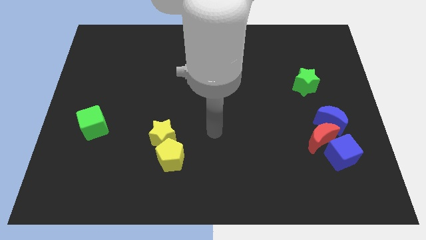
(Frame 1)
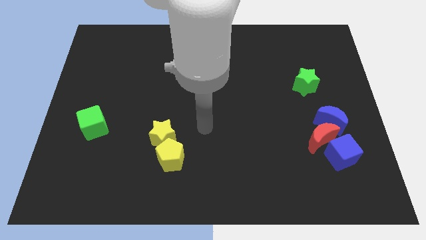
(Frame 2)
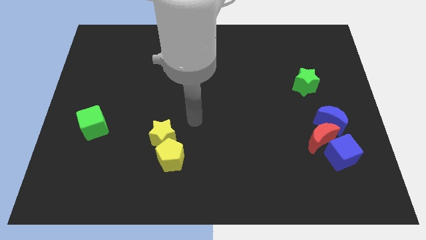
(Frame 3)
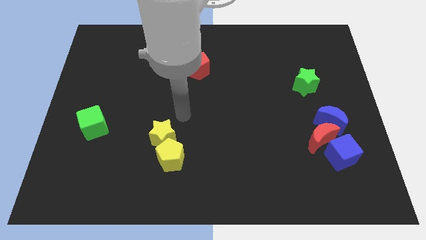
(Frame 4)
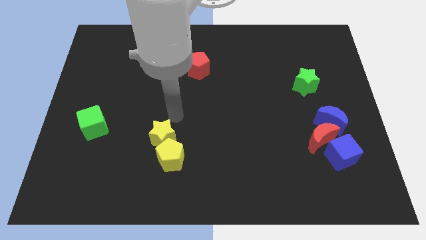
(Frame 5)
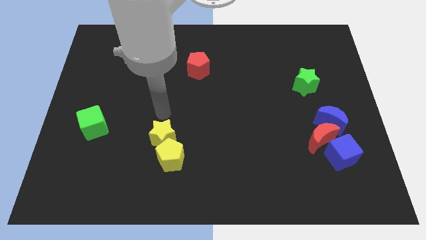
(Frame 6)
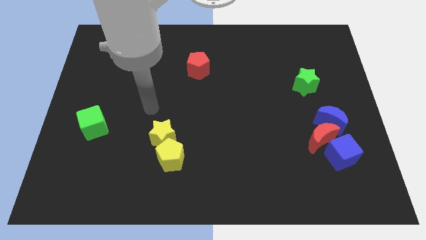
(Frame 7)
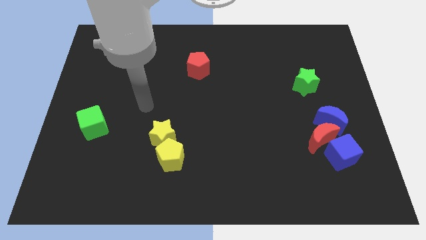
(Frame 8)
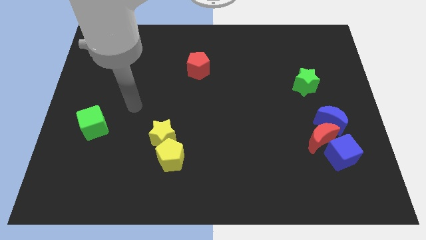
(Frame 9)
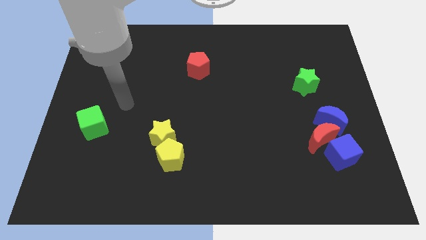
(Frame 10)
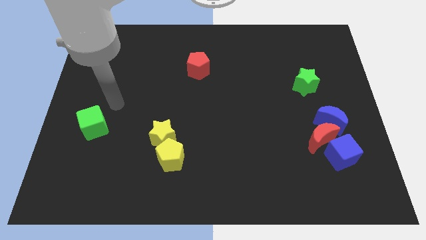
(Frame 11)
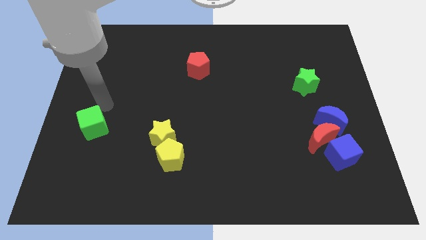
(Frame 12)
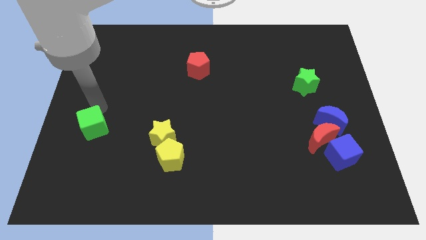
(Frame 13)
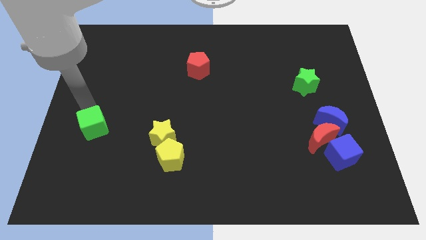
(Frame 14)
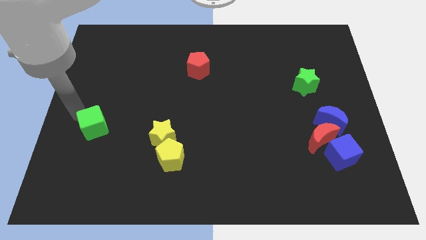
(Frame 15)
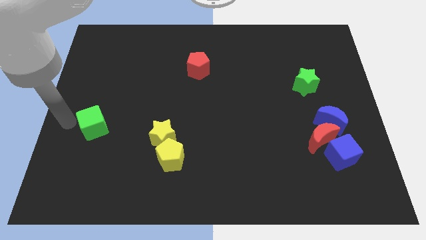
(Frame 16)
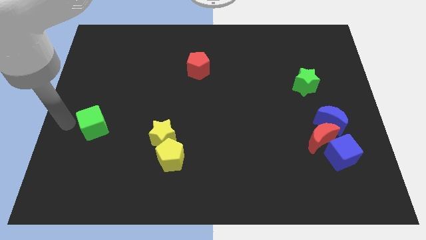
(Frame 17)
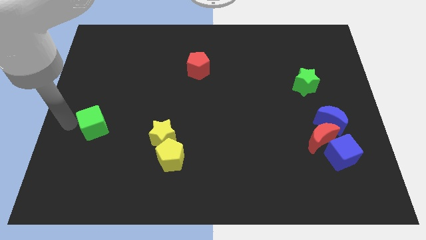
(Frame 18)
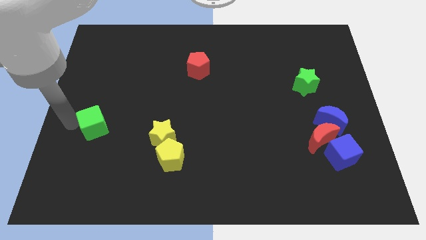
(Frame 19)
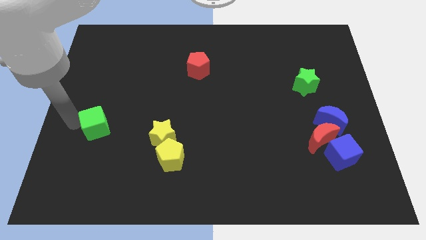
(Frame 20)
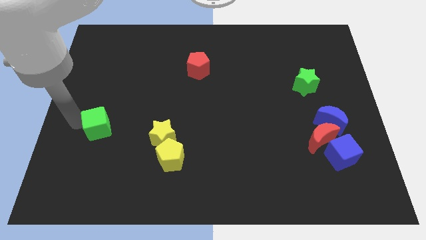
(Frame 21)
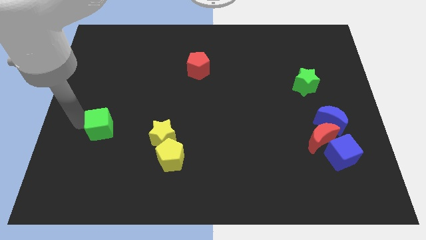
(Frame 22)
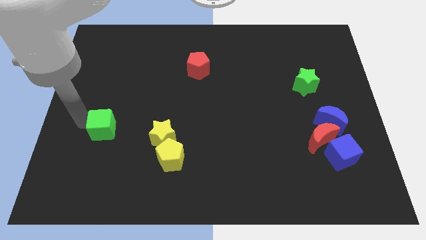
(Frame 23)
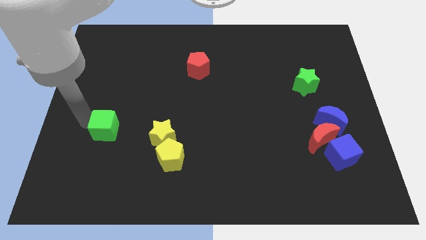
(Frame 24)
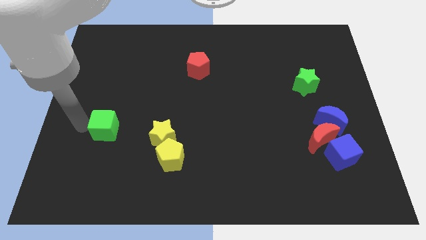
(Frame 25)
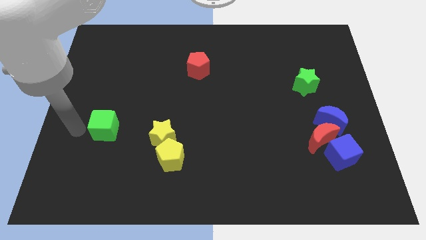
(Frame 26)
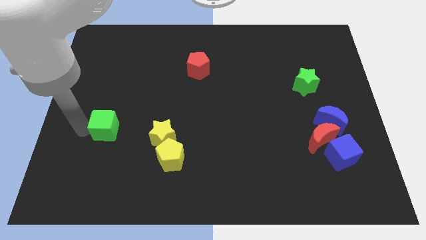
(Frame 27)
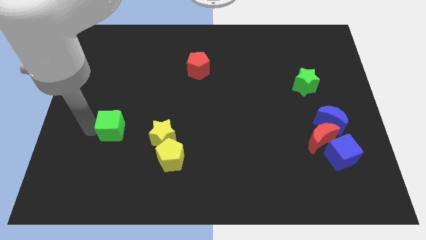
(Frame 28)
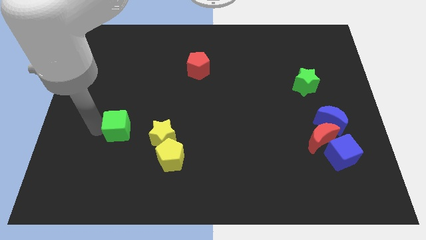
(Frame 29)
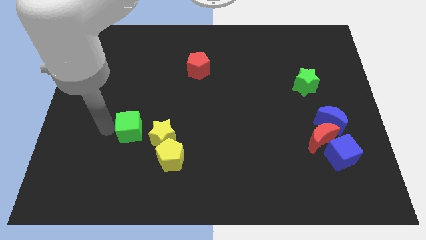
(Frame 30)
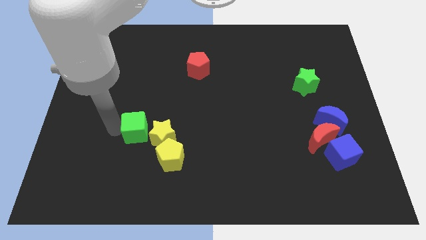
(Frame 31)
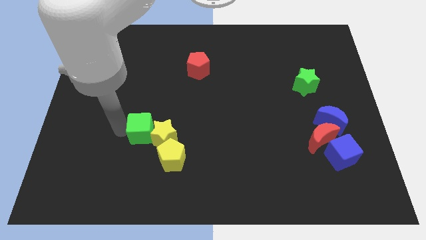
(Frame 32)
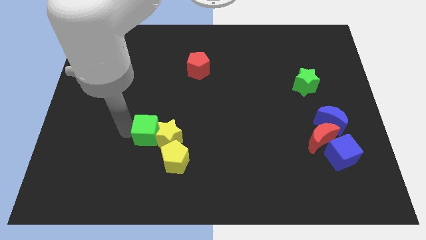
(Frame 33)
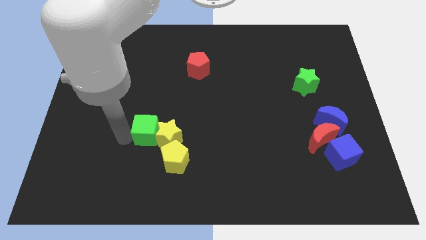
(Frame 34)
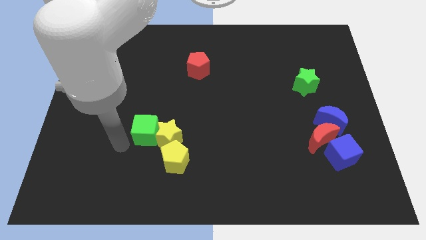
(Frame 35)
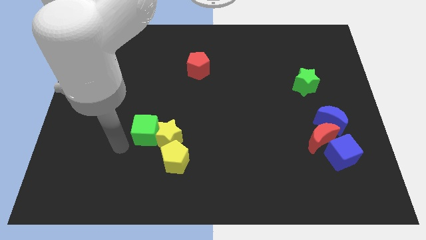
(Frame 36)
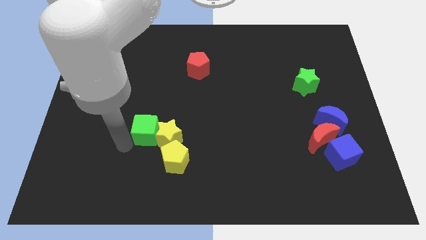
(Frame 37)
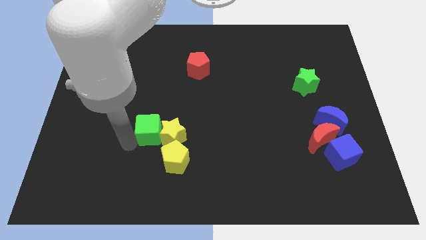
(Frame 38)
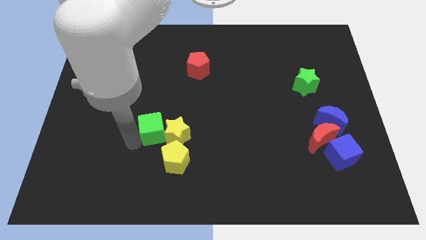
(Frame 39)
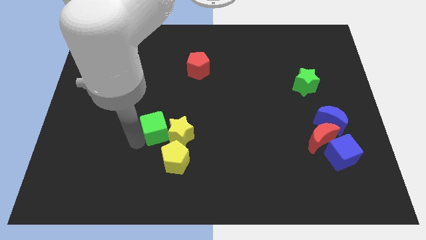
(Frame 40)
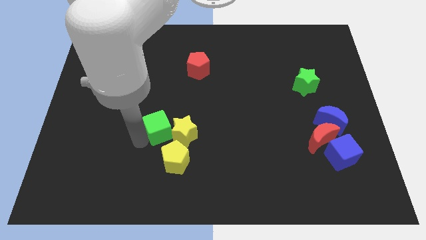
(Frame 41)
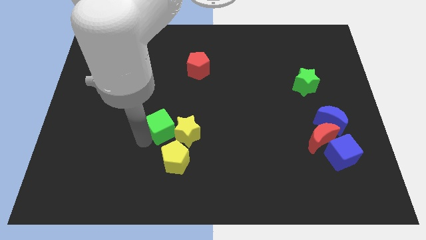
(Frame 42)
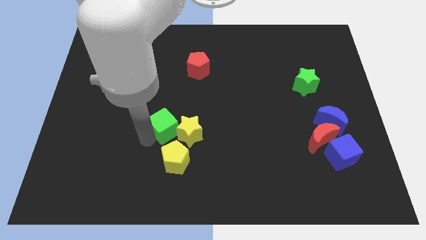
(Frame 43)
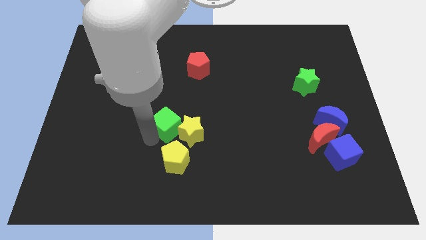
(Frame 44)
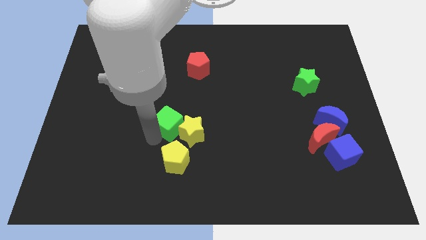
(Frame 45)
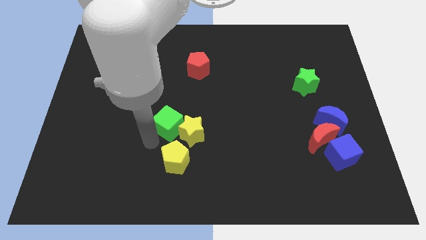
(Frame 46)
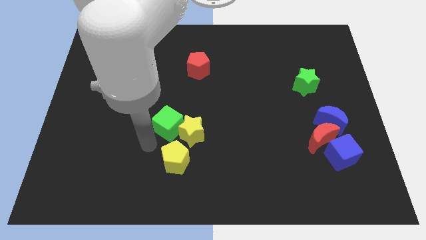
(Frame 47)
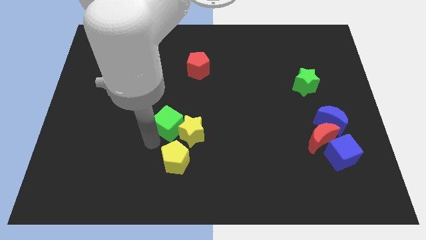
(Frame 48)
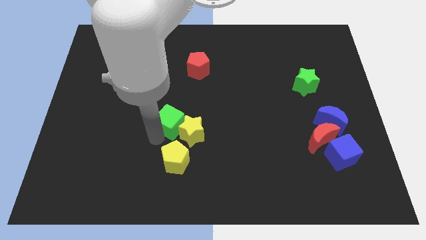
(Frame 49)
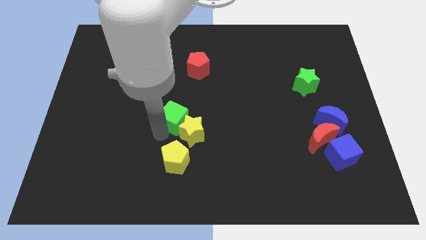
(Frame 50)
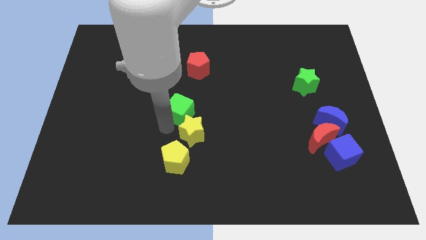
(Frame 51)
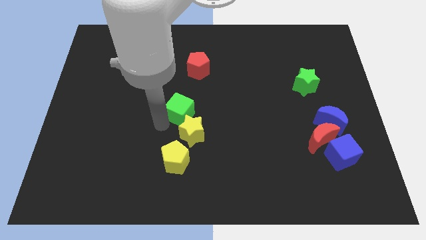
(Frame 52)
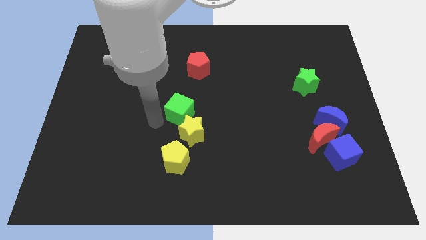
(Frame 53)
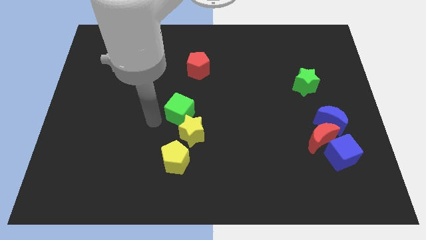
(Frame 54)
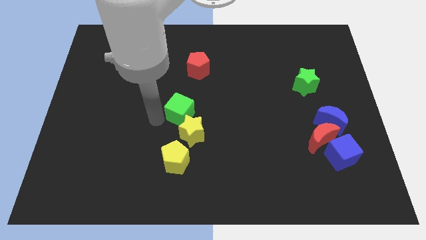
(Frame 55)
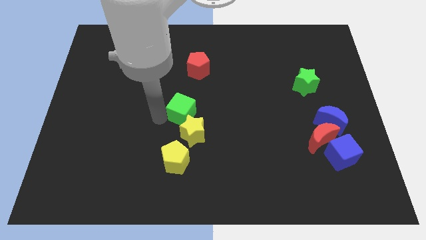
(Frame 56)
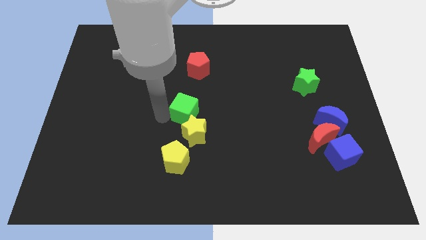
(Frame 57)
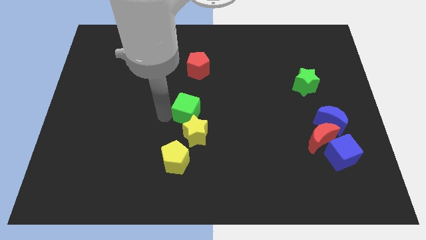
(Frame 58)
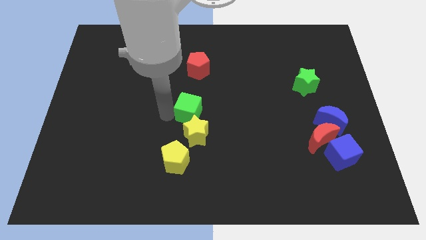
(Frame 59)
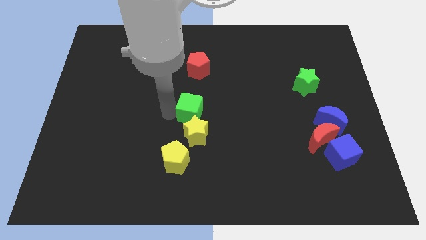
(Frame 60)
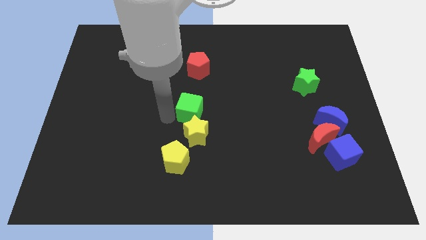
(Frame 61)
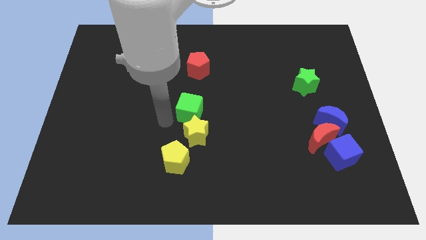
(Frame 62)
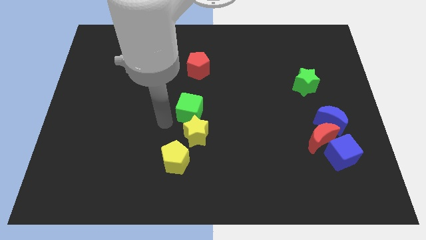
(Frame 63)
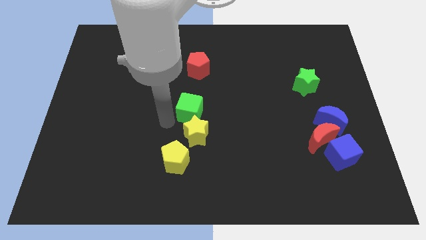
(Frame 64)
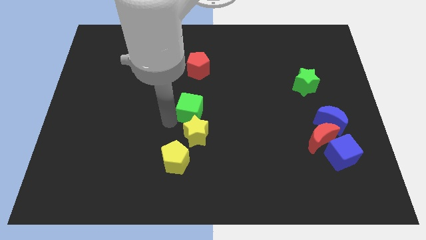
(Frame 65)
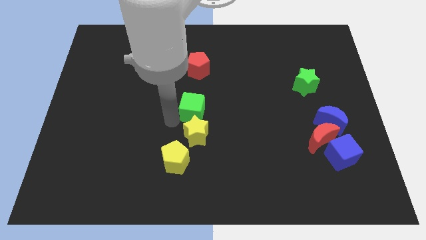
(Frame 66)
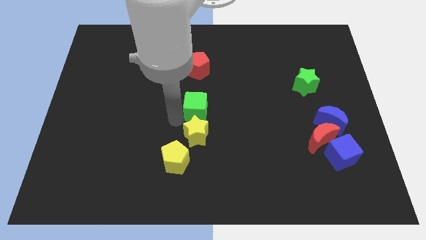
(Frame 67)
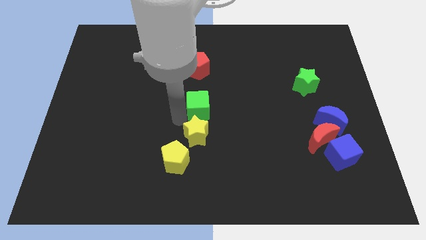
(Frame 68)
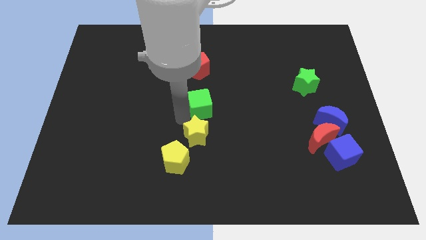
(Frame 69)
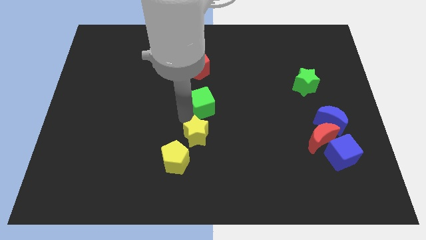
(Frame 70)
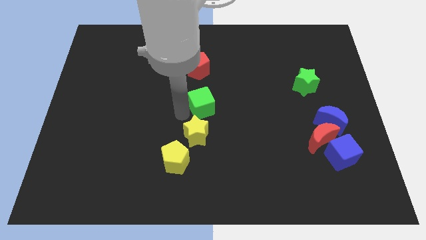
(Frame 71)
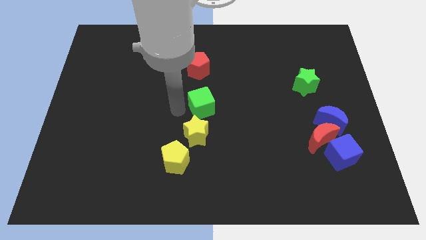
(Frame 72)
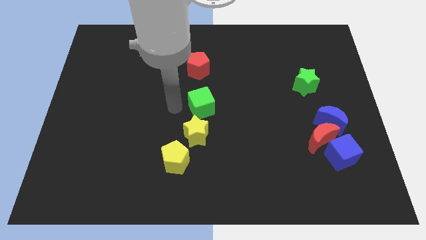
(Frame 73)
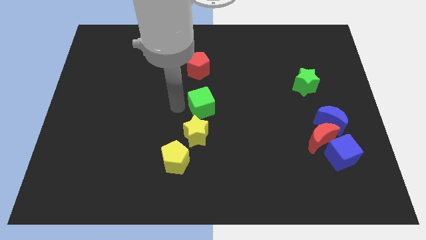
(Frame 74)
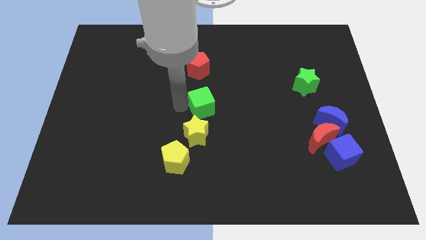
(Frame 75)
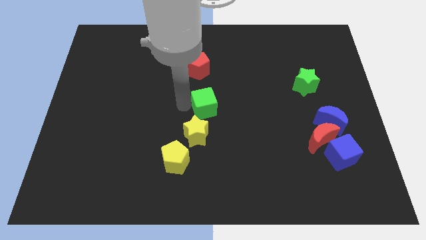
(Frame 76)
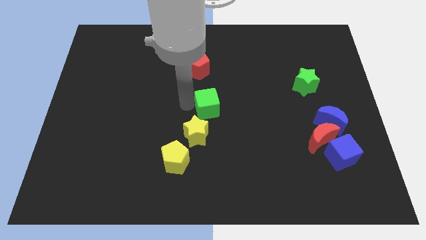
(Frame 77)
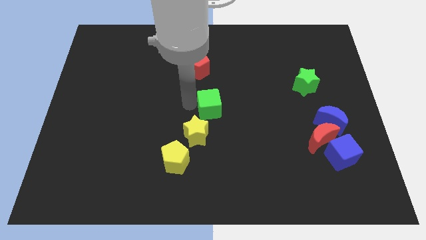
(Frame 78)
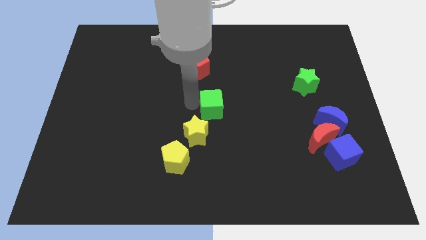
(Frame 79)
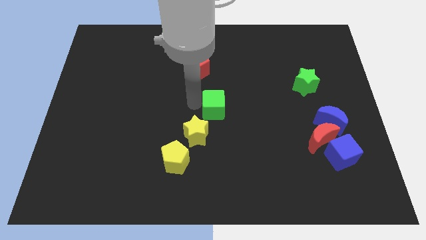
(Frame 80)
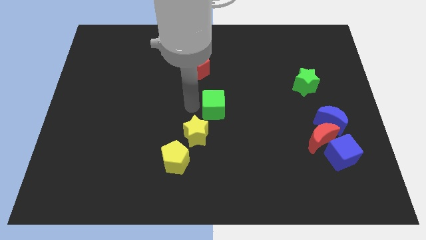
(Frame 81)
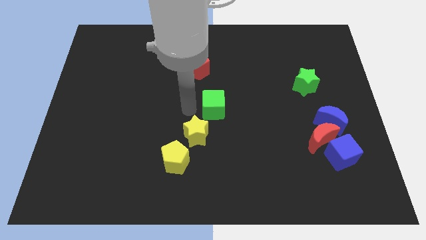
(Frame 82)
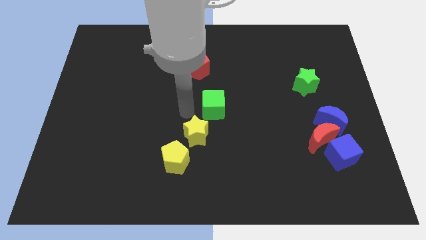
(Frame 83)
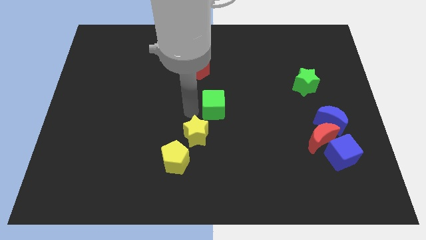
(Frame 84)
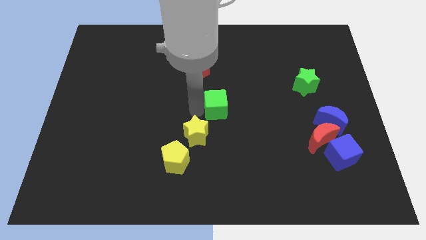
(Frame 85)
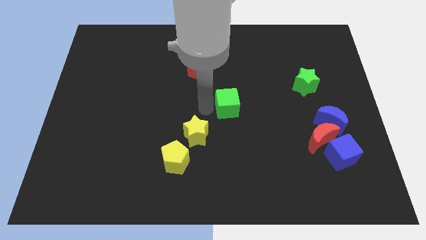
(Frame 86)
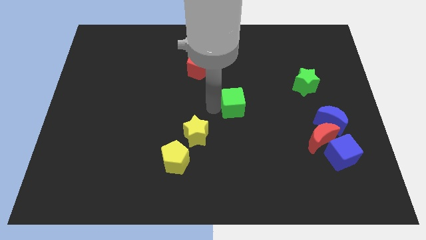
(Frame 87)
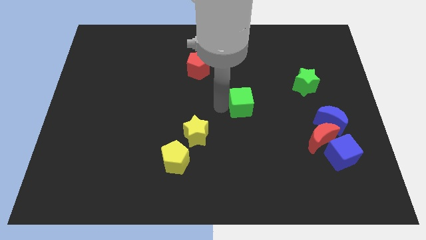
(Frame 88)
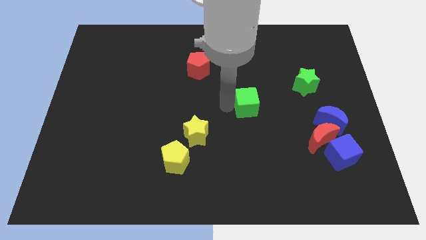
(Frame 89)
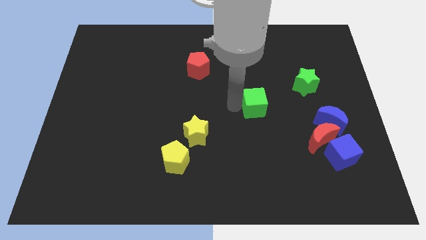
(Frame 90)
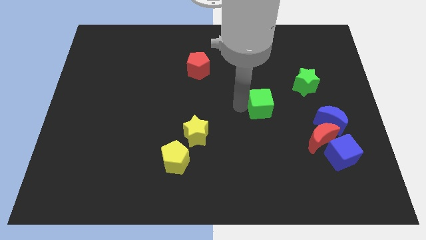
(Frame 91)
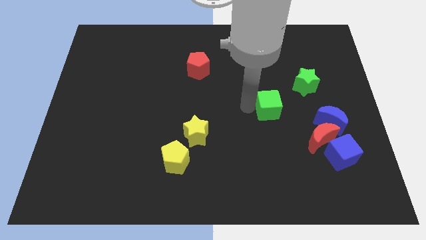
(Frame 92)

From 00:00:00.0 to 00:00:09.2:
move the green cube to the bottom left side of the green star
